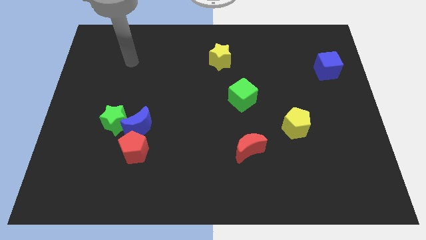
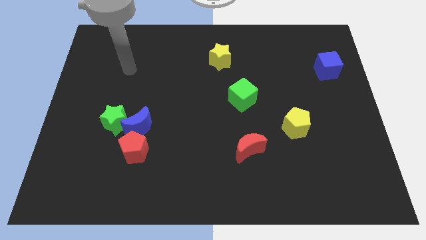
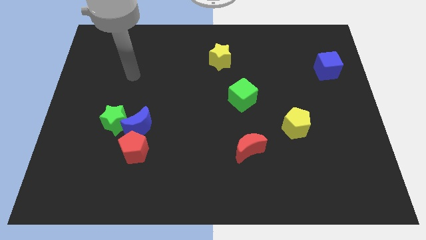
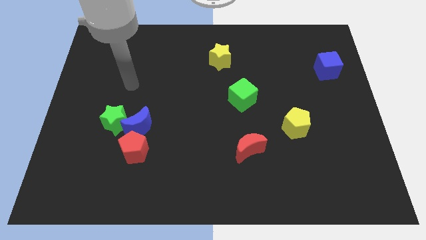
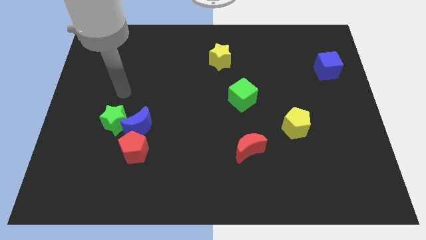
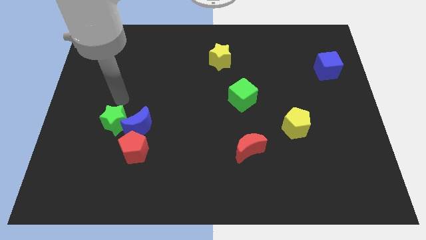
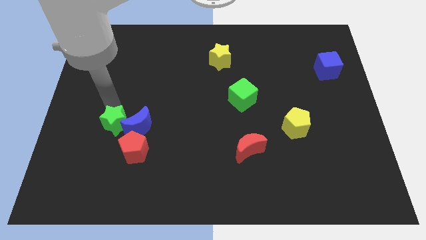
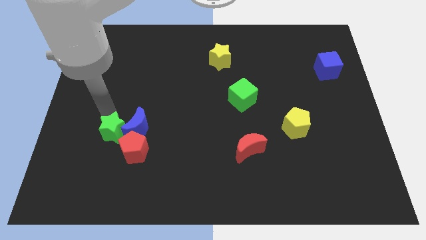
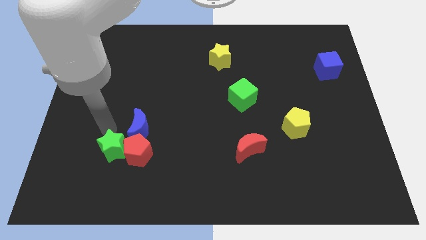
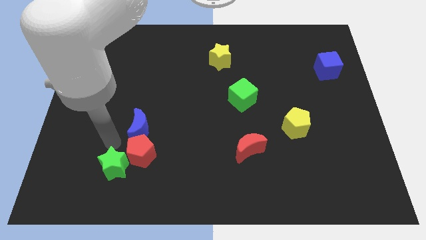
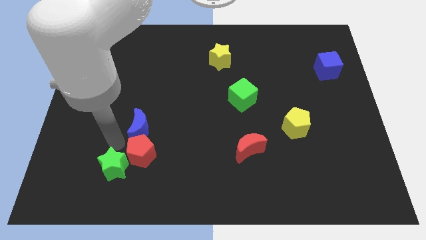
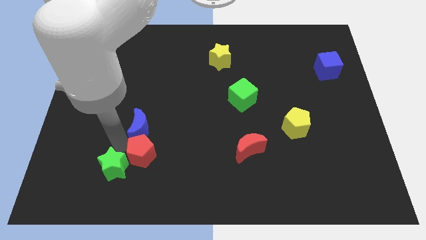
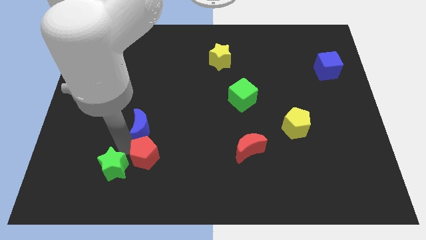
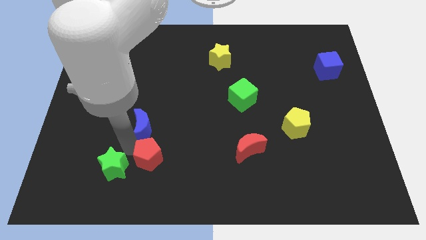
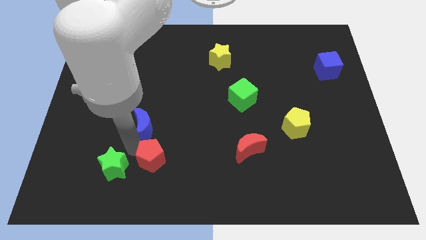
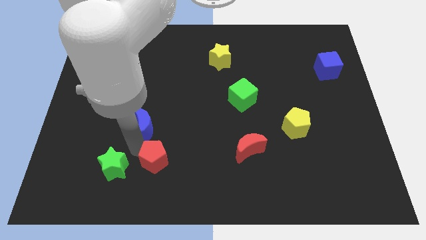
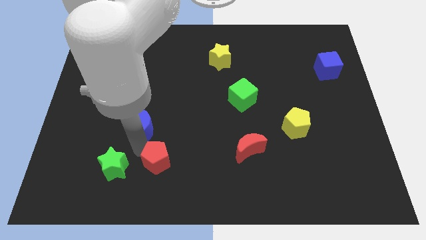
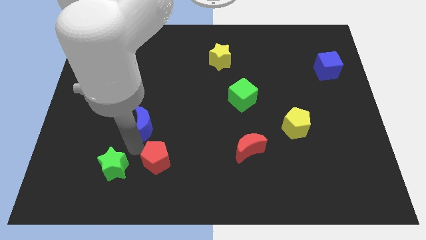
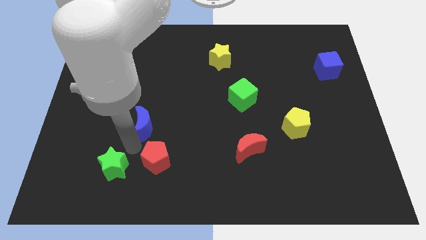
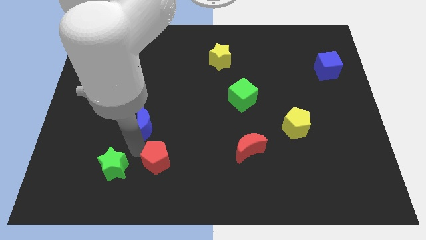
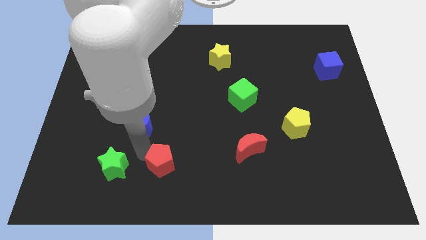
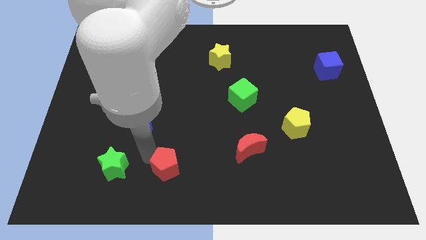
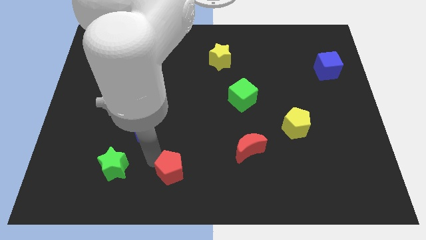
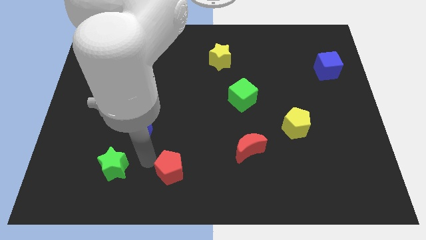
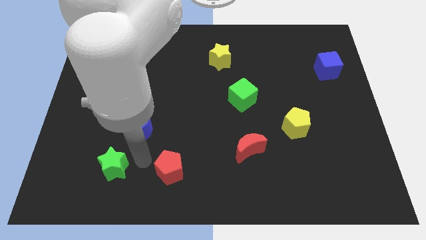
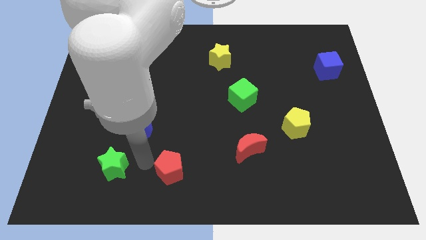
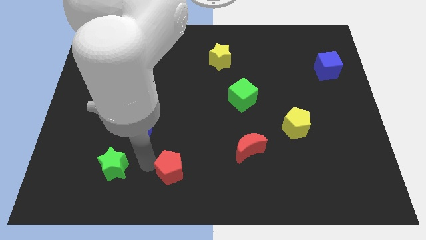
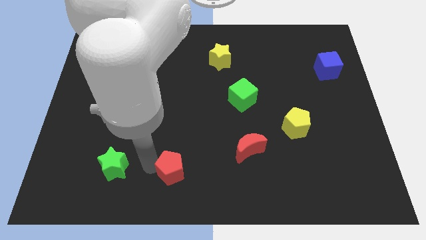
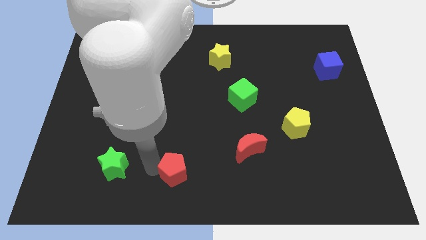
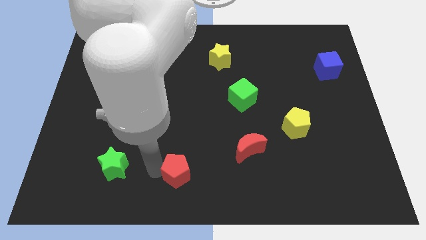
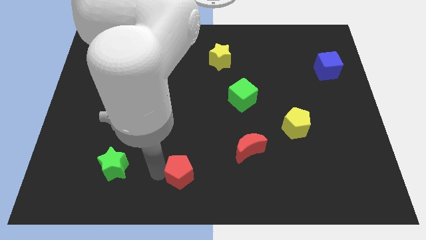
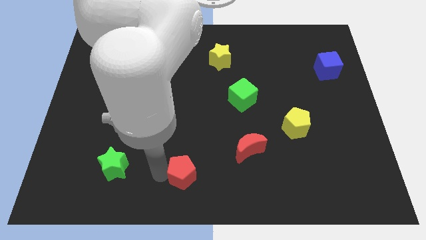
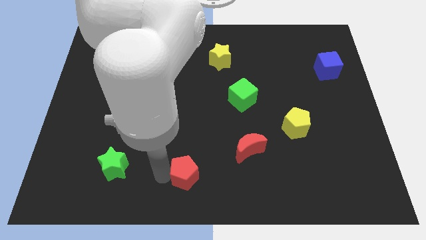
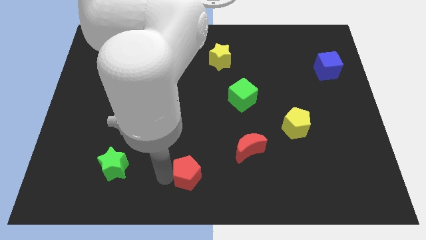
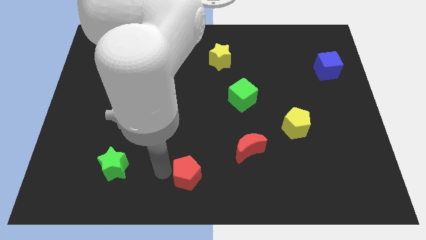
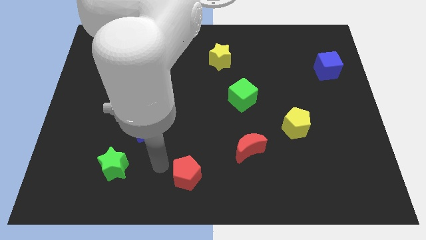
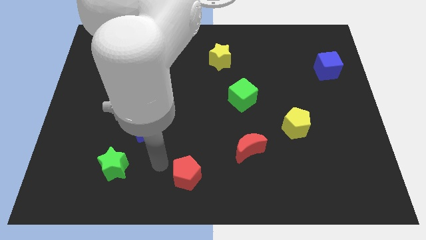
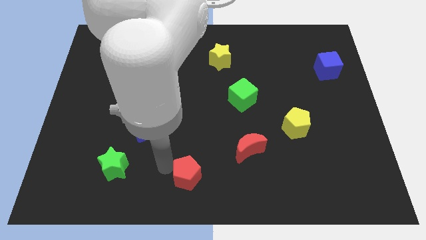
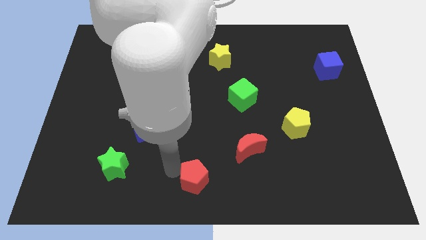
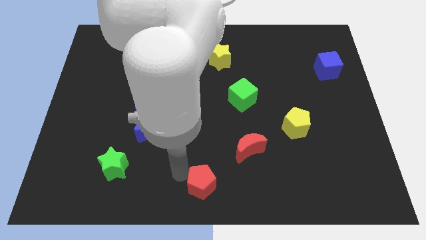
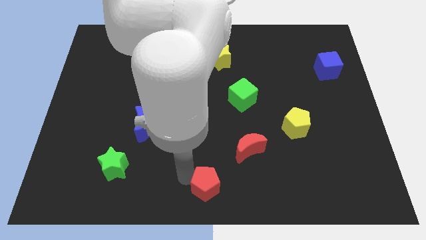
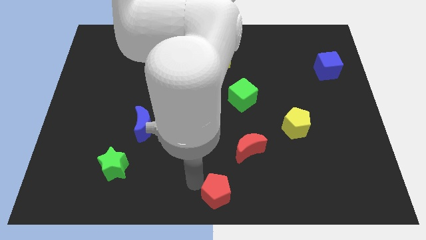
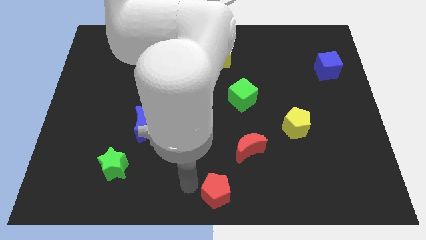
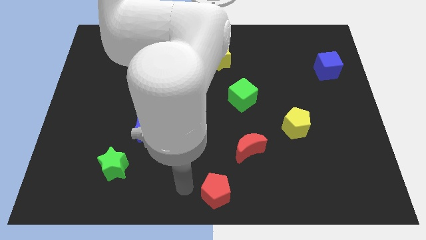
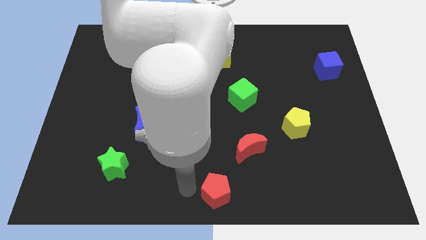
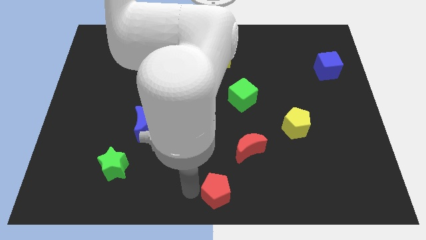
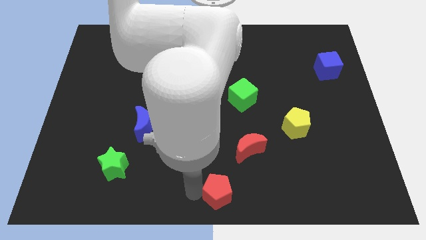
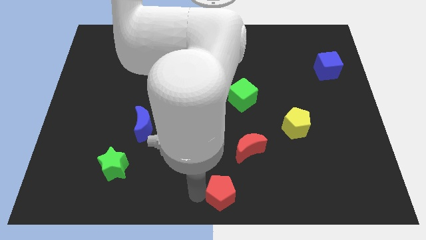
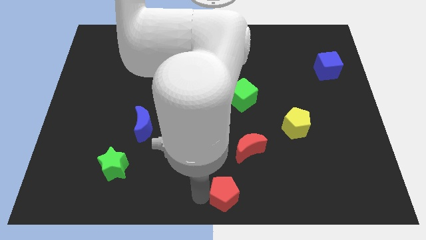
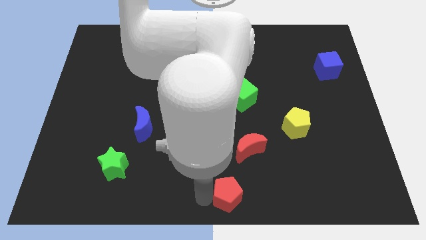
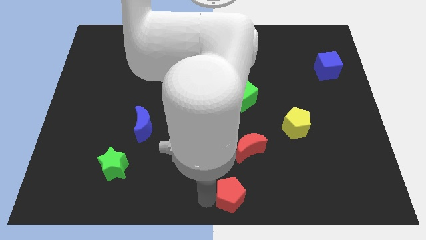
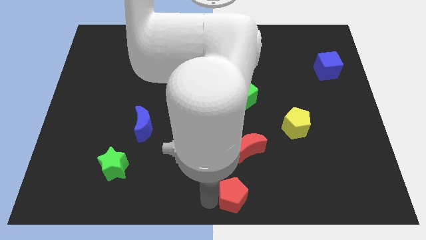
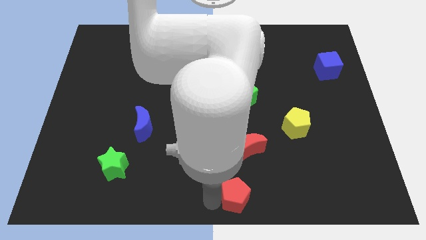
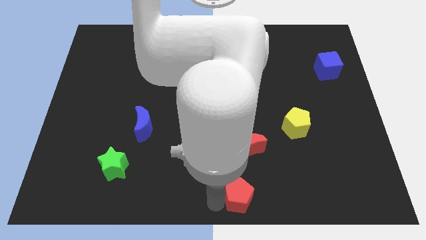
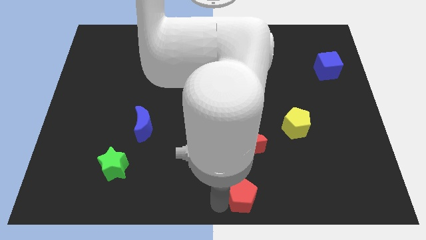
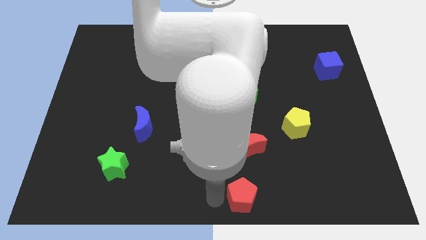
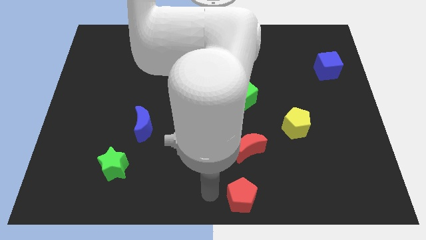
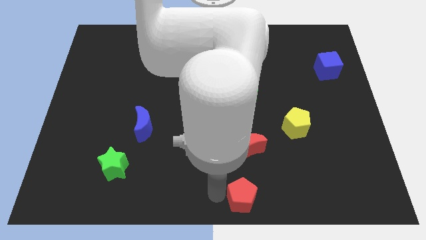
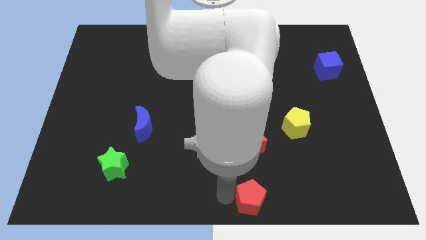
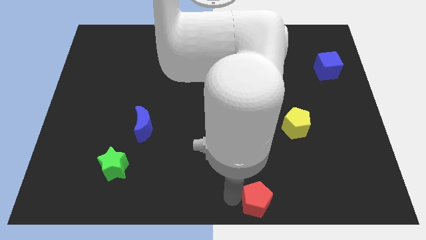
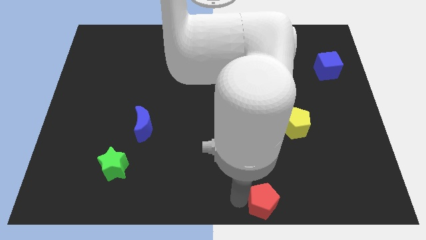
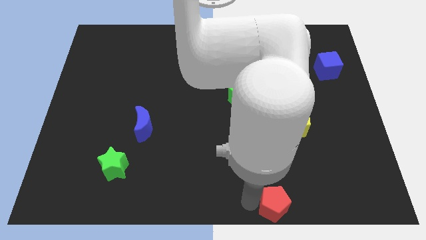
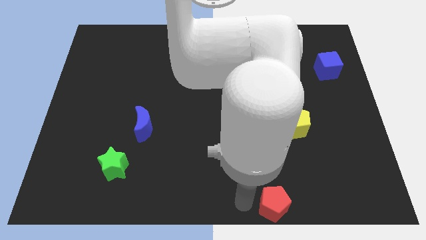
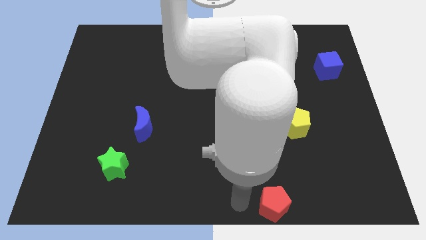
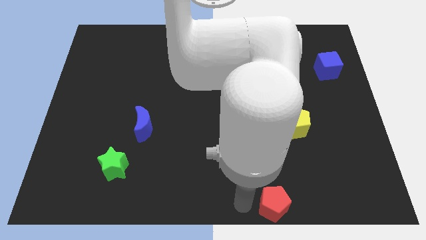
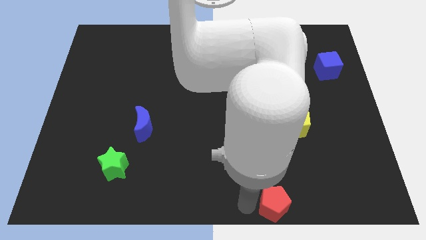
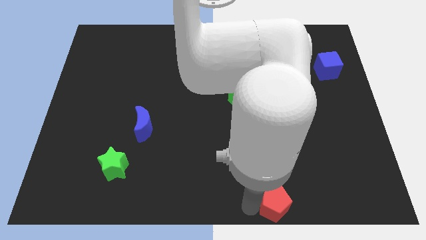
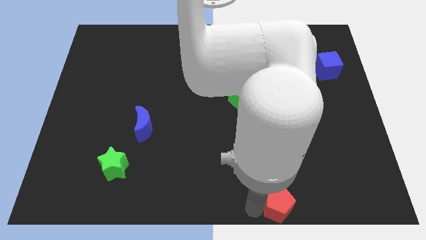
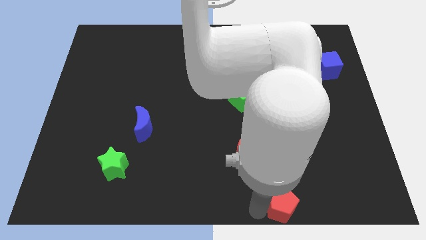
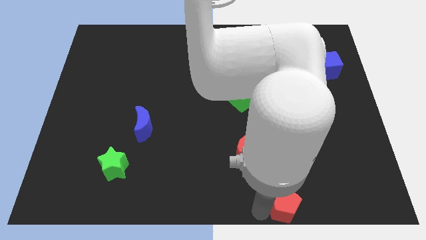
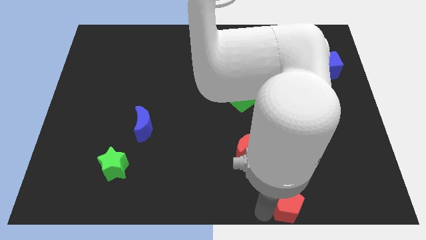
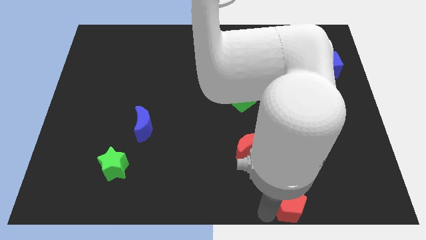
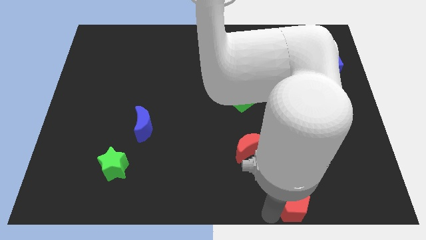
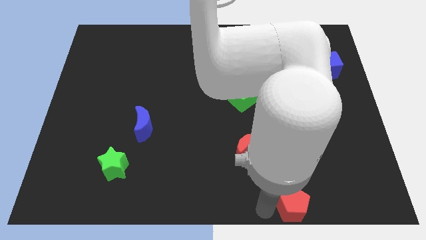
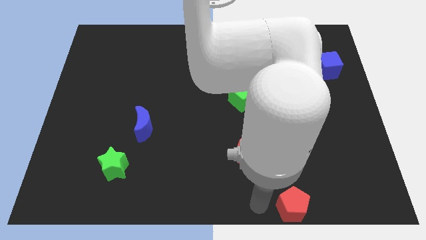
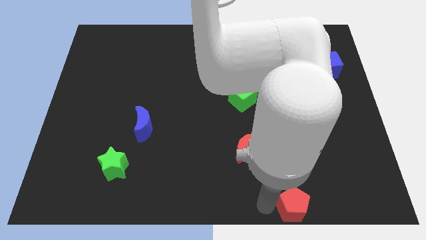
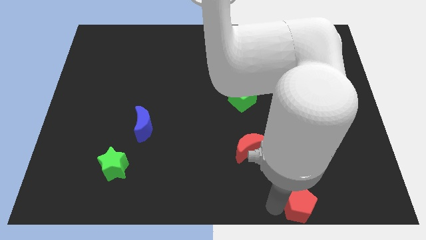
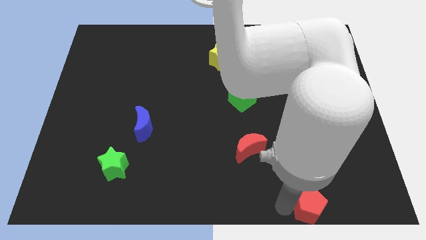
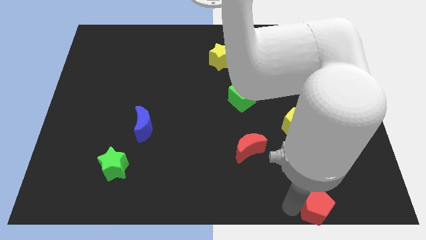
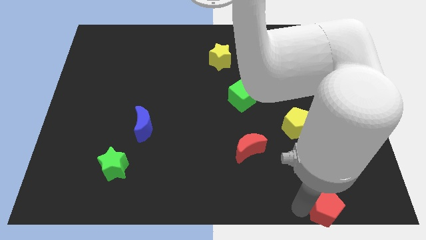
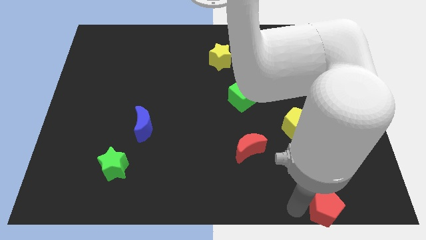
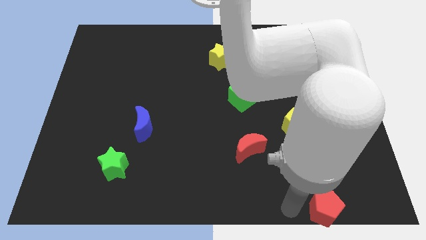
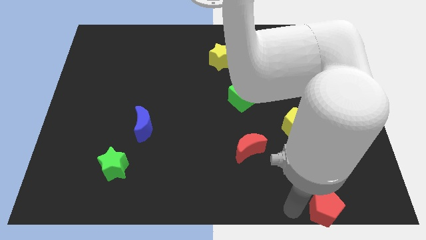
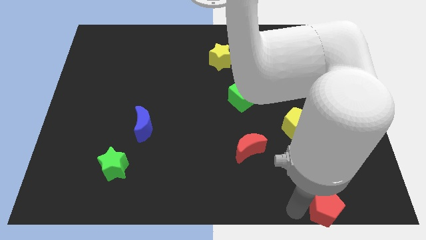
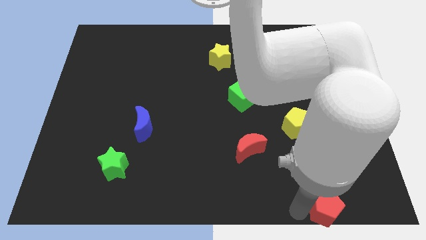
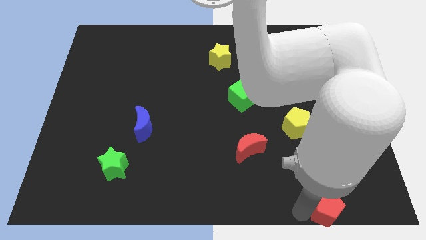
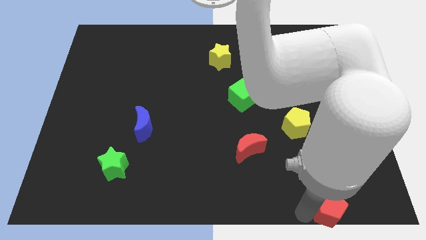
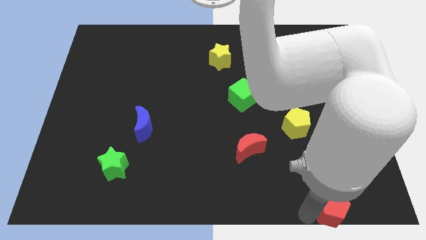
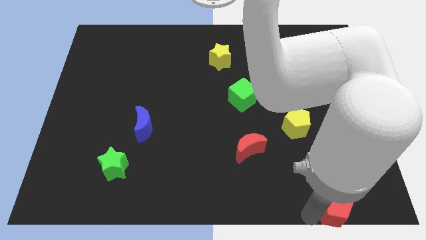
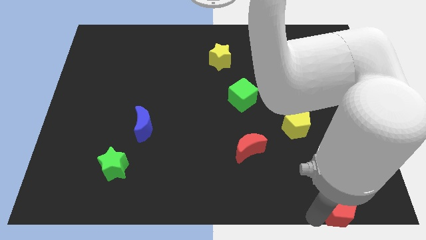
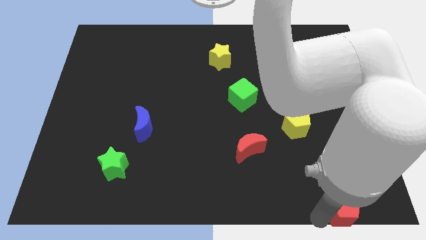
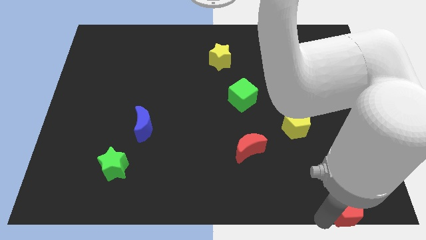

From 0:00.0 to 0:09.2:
slide the red pentagon to the lower right corner
